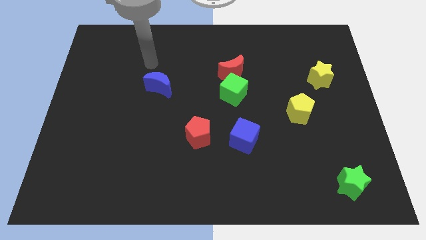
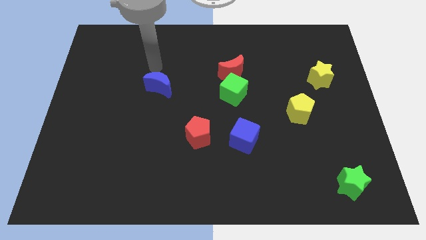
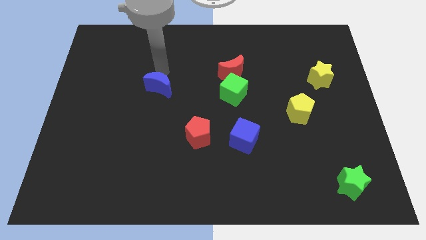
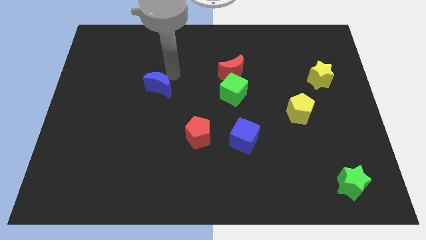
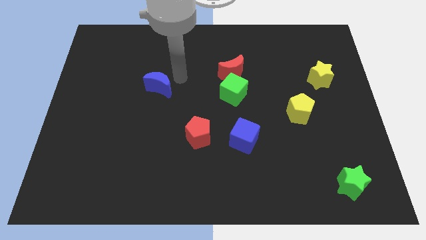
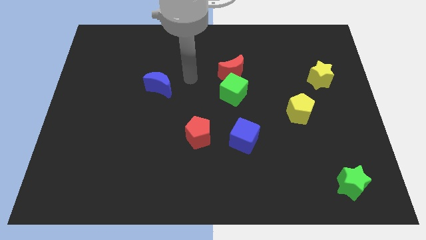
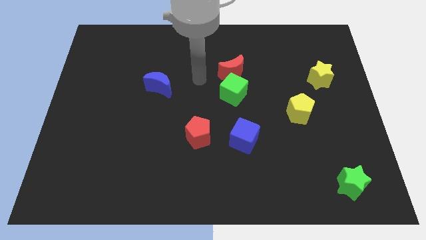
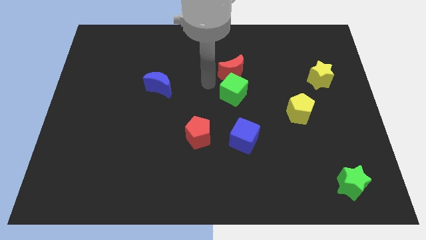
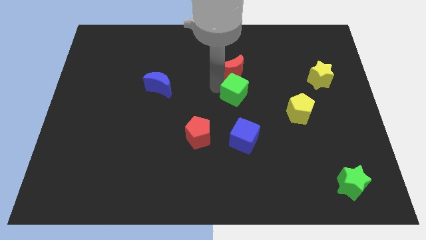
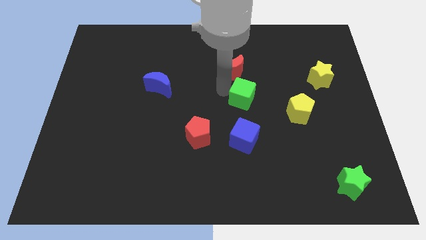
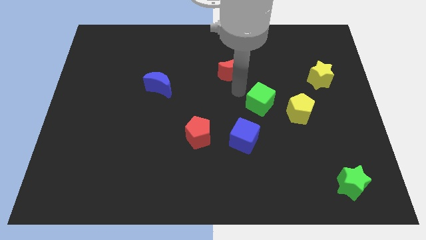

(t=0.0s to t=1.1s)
move the red moon away from the green cube

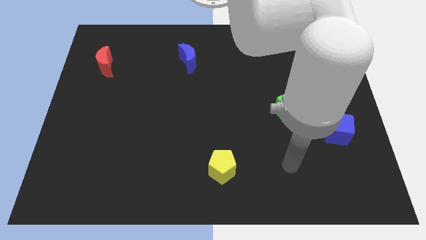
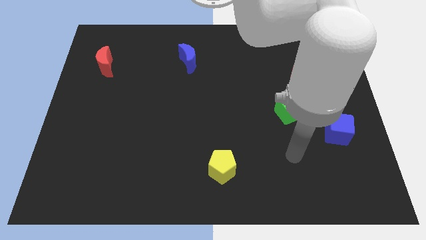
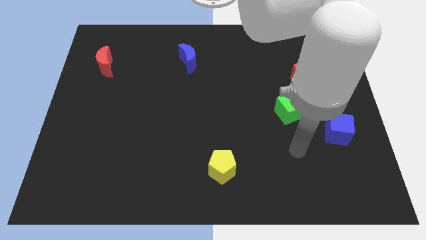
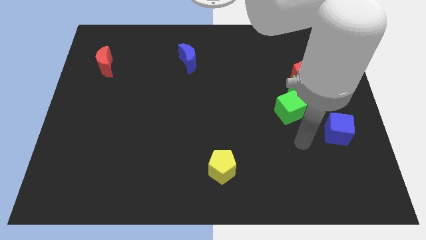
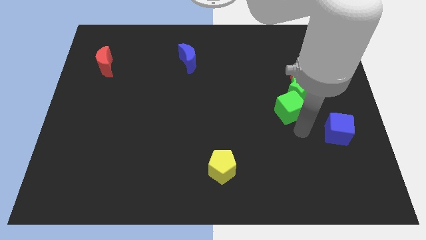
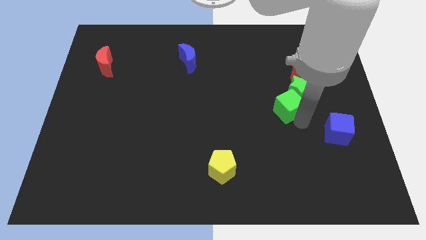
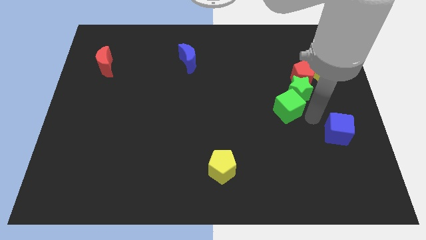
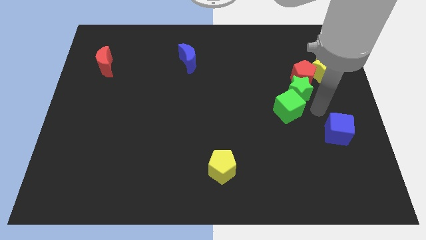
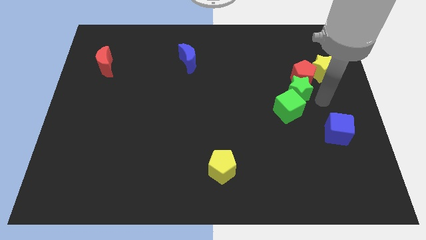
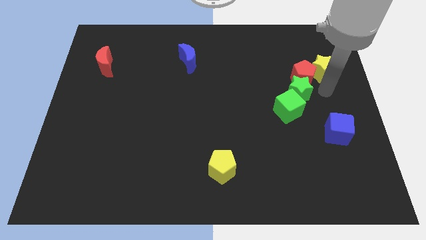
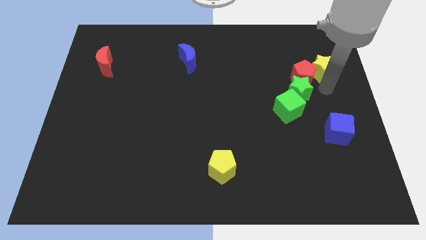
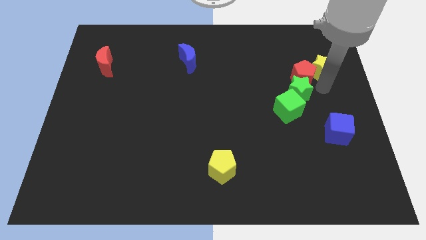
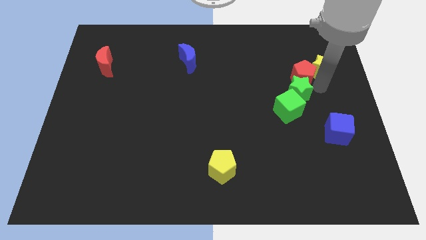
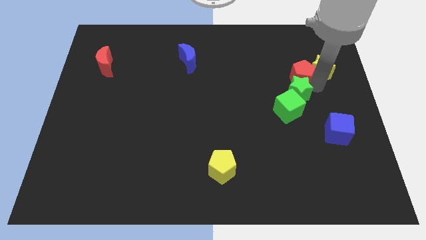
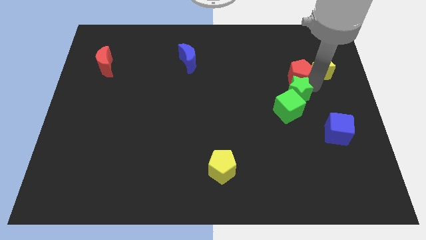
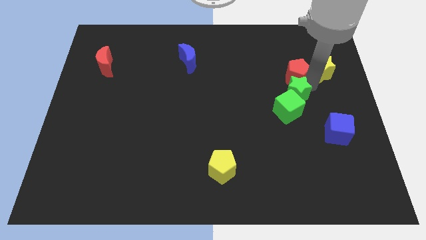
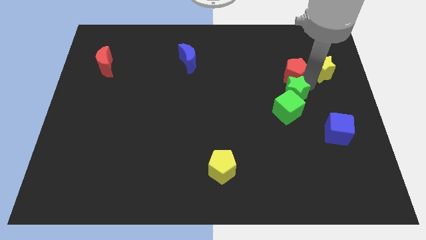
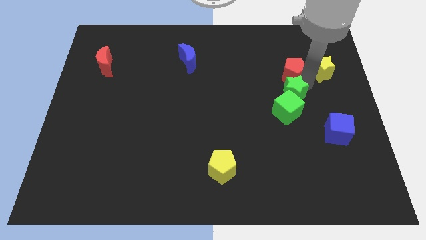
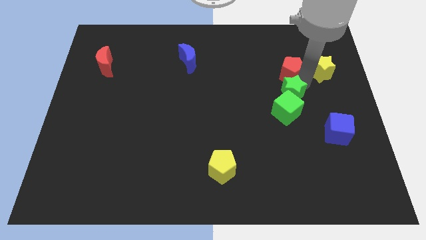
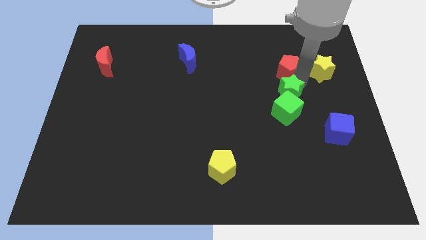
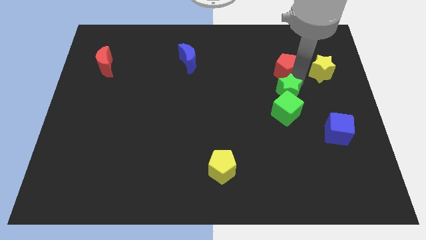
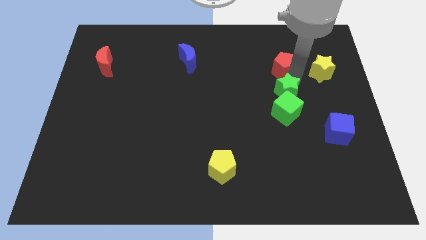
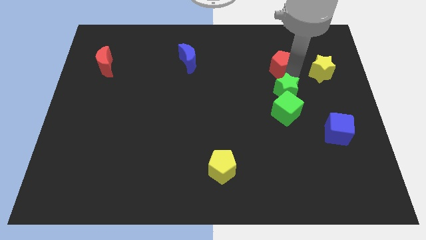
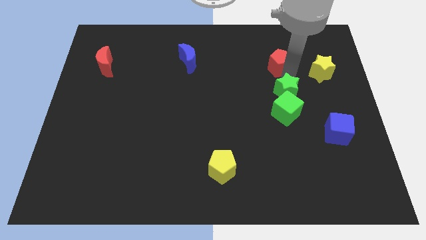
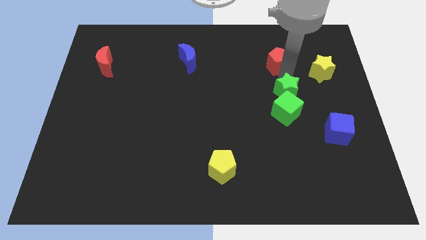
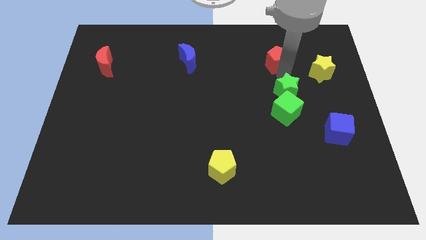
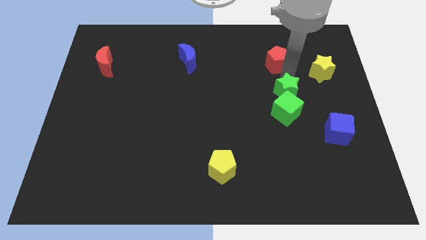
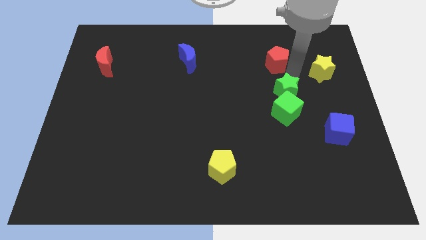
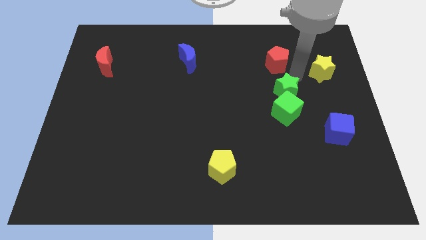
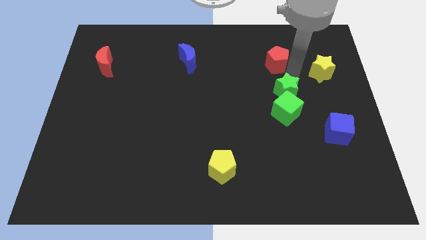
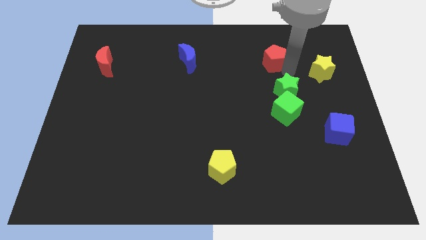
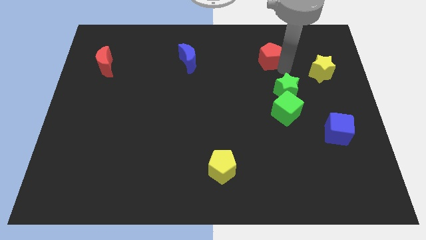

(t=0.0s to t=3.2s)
pull the red pentagon apart from the green star and yellow star

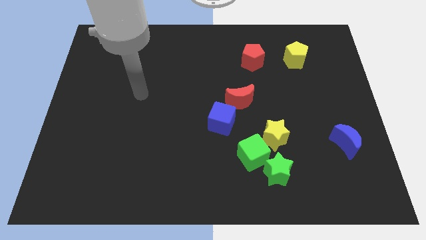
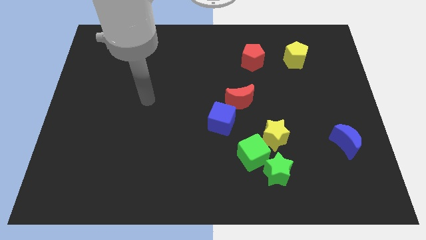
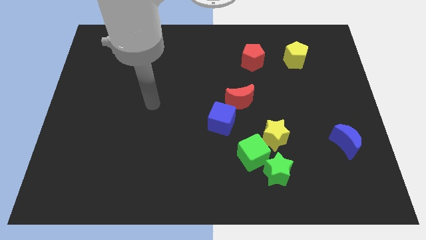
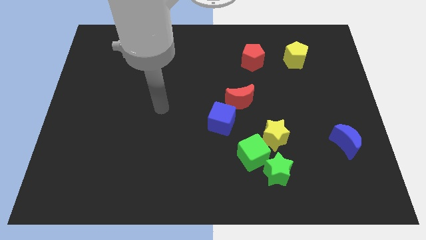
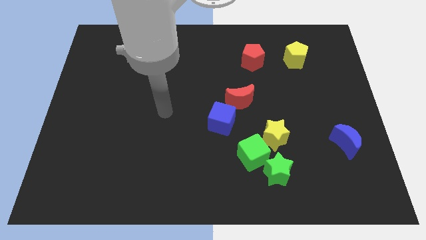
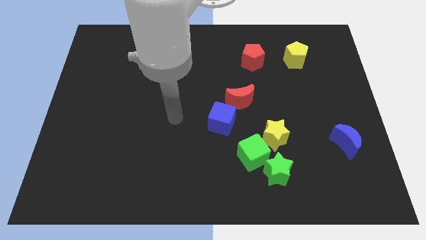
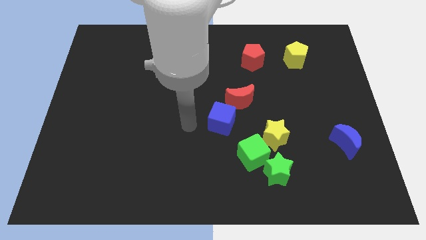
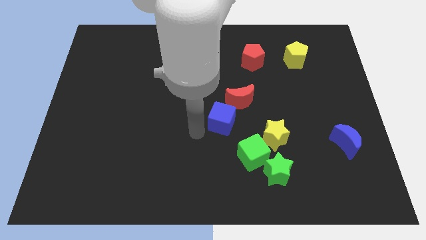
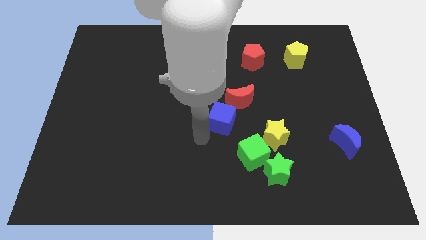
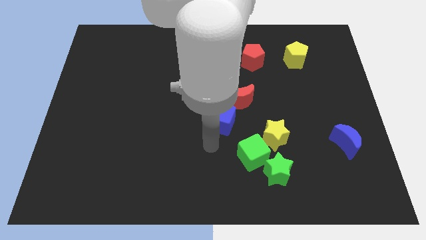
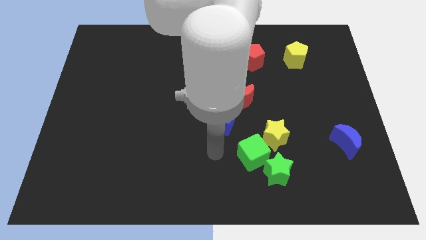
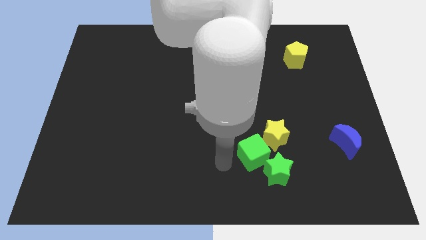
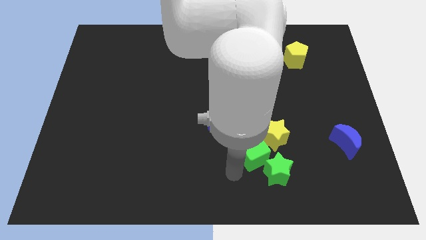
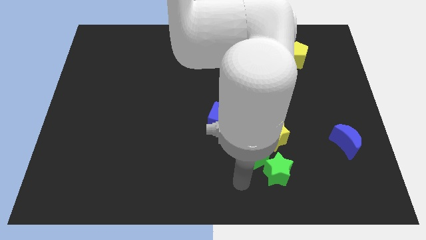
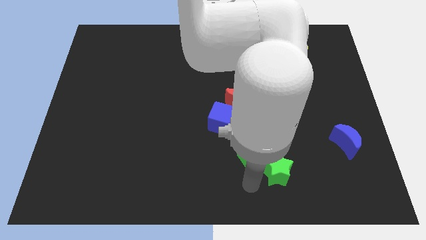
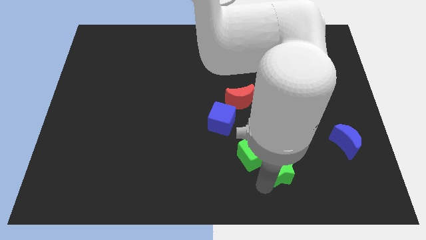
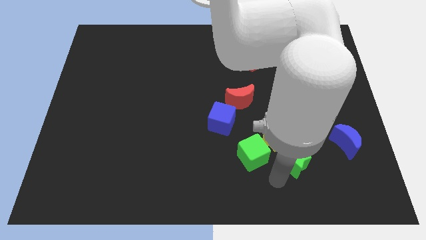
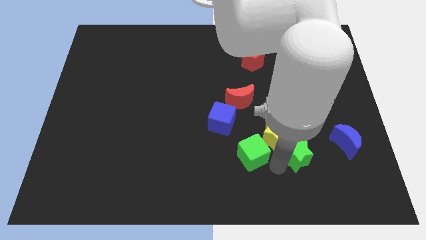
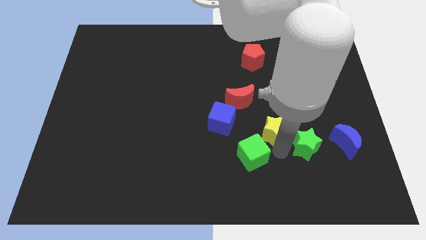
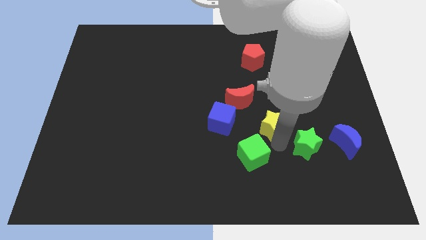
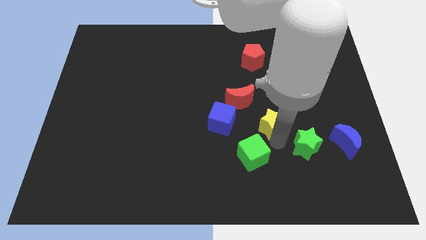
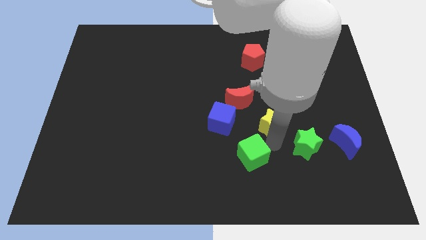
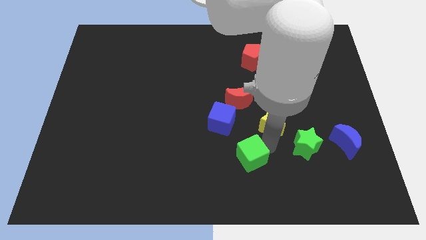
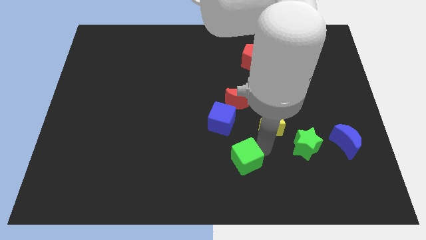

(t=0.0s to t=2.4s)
move the green cube away from the green star and yellow star

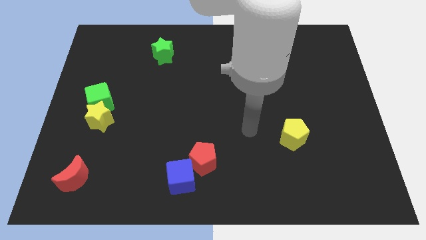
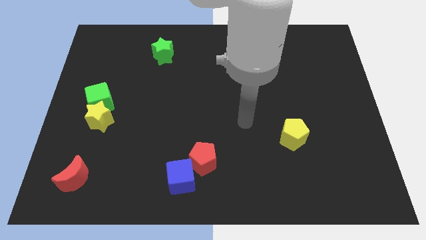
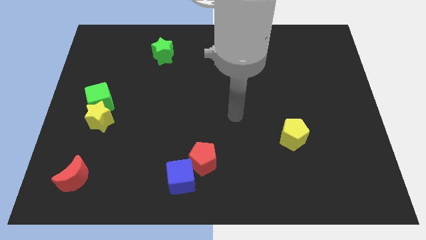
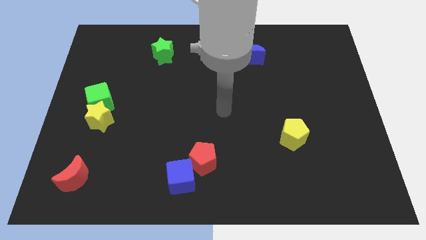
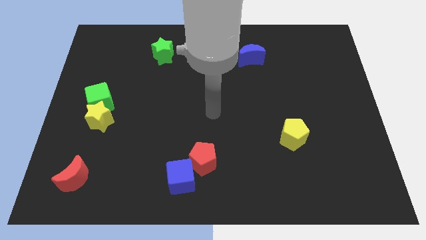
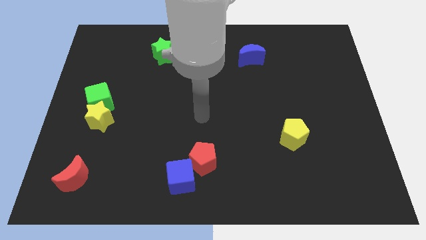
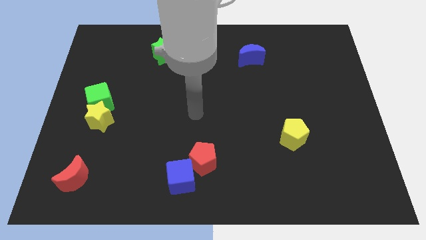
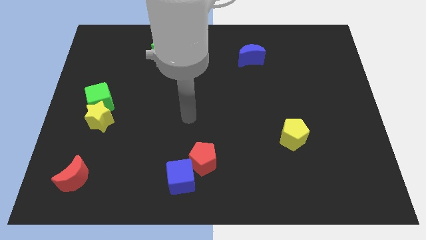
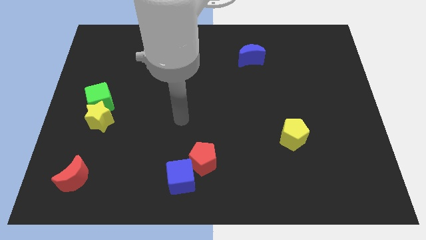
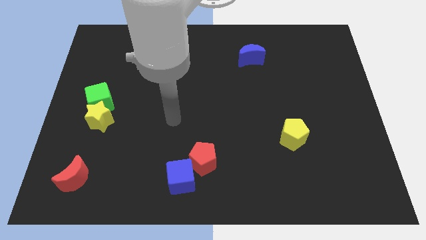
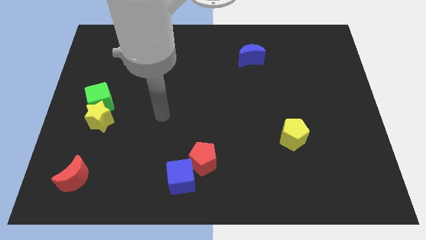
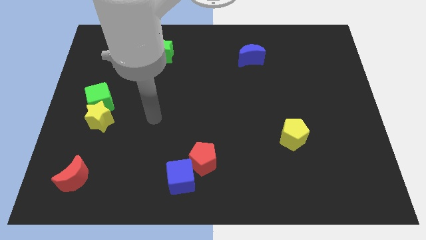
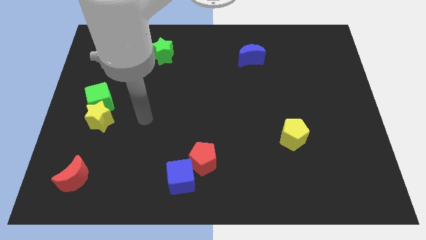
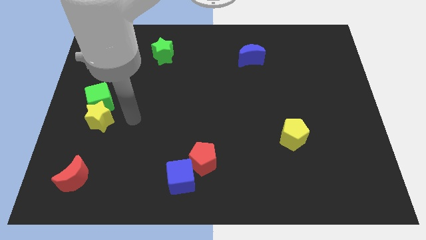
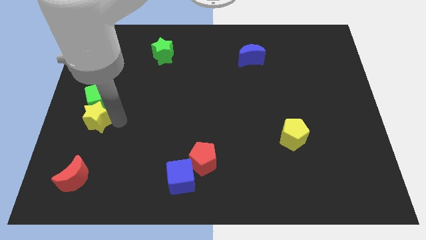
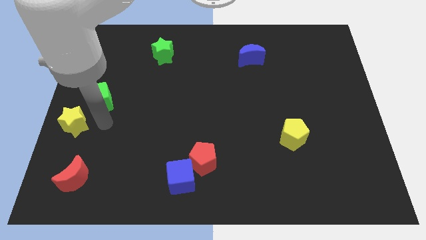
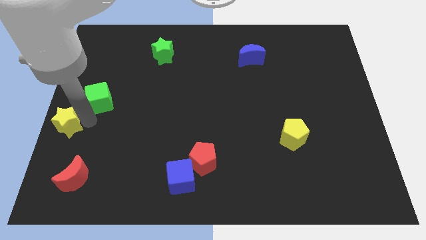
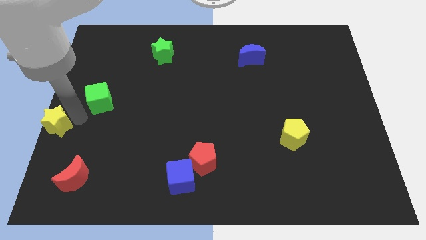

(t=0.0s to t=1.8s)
separate the green cube from the yellow star

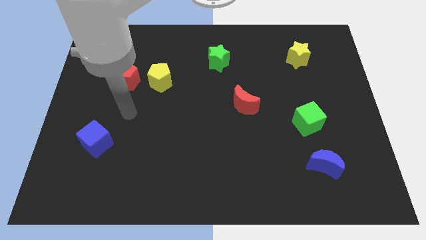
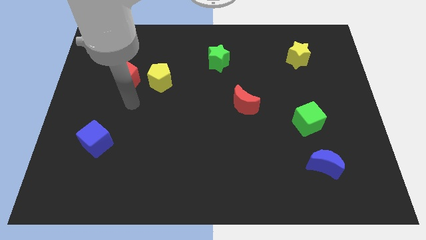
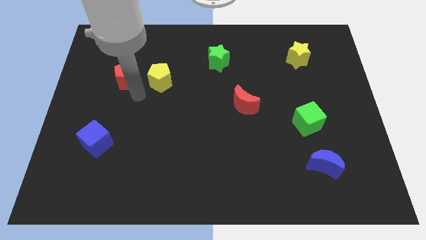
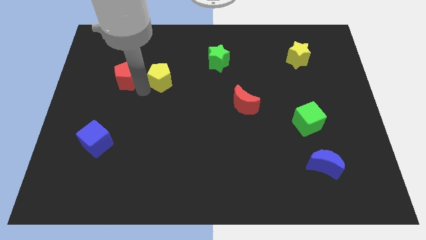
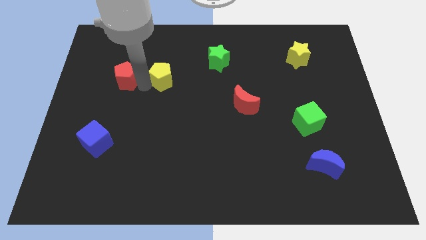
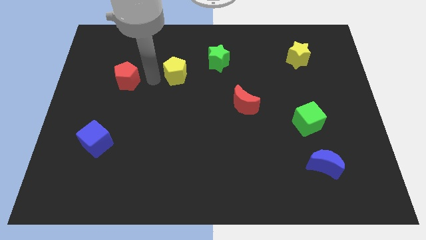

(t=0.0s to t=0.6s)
move the red pentagon away from the yellow pentagon

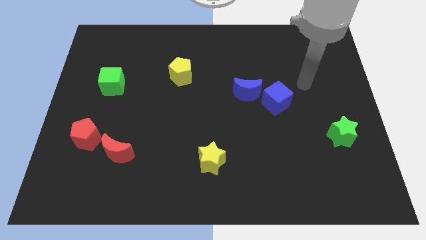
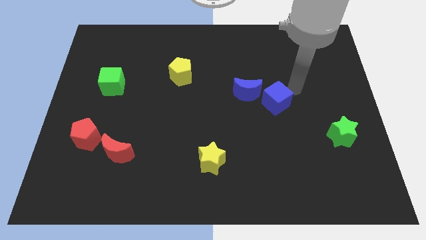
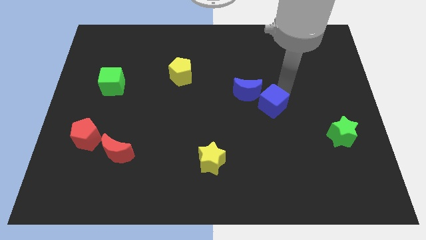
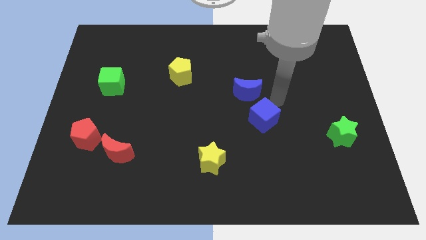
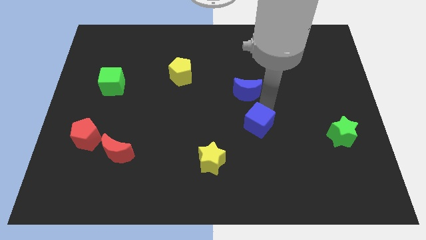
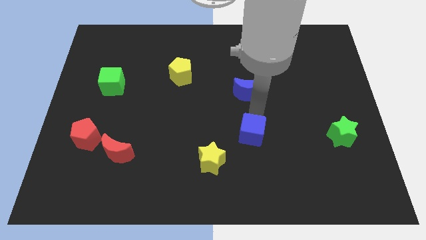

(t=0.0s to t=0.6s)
pull the blue moon apart from the blue cube
